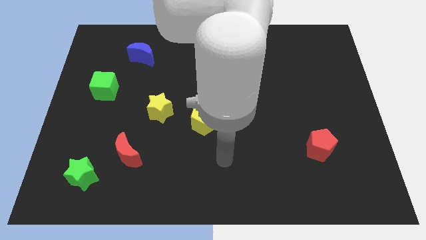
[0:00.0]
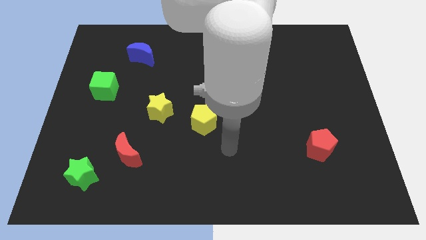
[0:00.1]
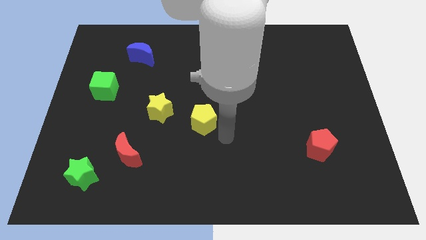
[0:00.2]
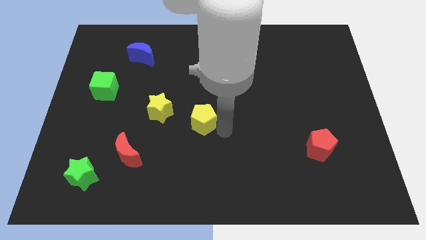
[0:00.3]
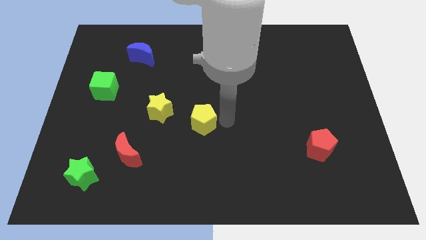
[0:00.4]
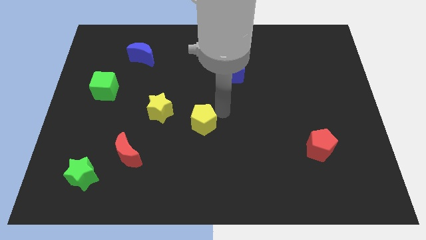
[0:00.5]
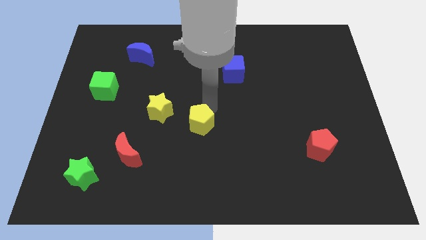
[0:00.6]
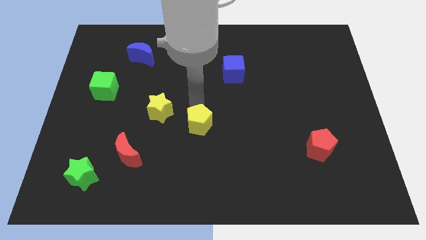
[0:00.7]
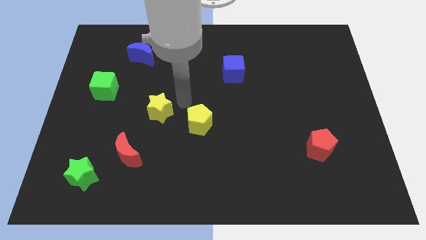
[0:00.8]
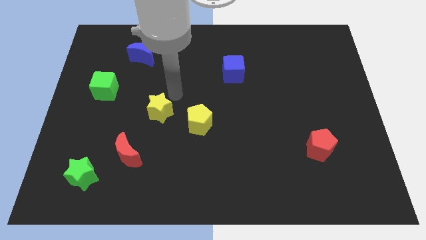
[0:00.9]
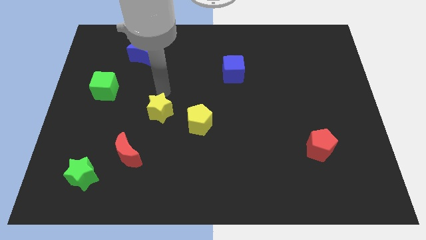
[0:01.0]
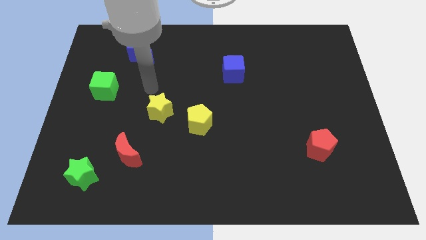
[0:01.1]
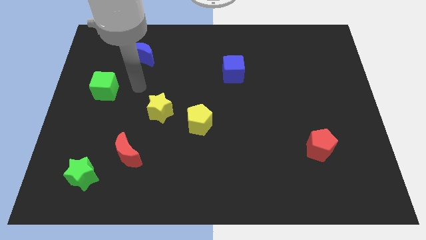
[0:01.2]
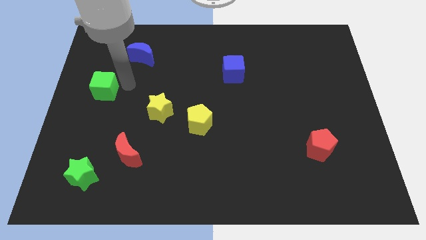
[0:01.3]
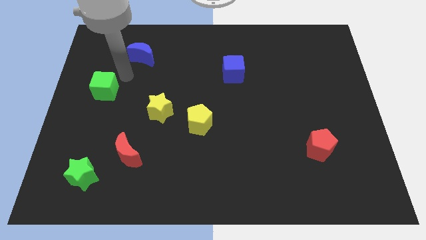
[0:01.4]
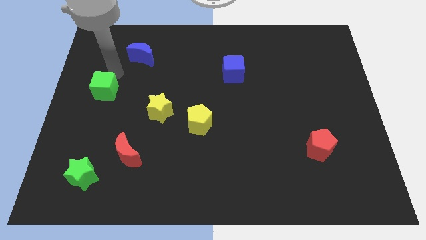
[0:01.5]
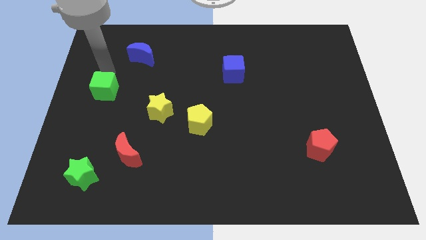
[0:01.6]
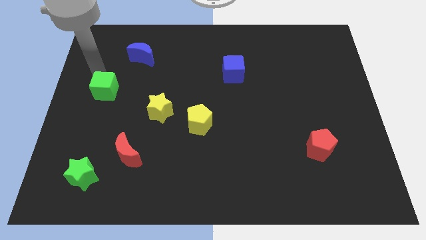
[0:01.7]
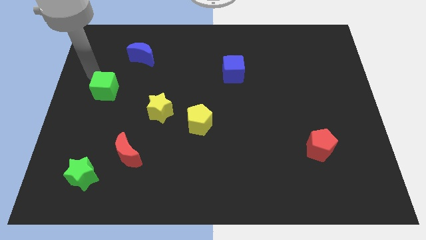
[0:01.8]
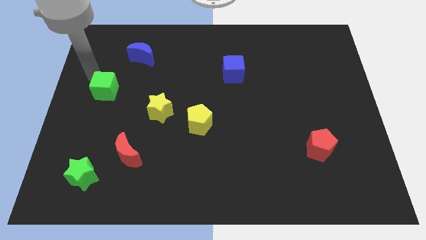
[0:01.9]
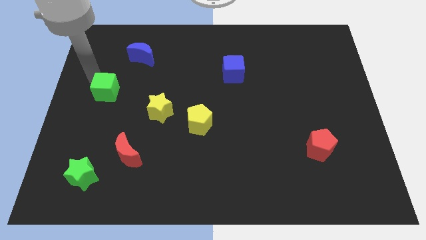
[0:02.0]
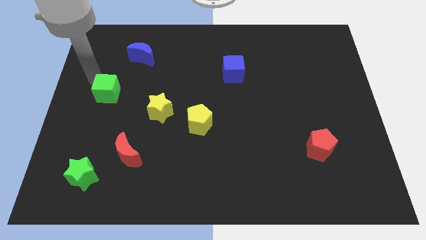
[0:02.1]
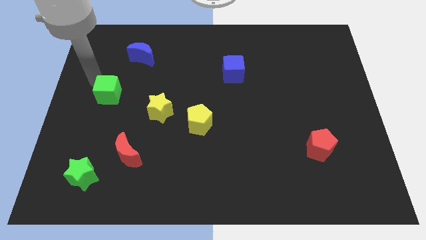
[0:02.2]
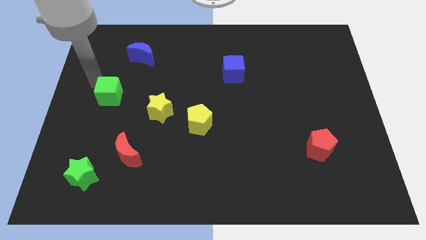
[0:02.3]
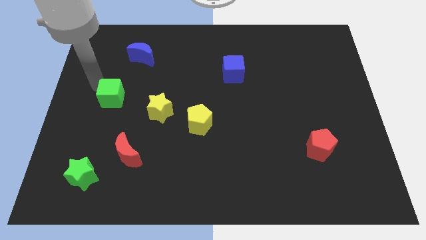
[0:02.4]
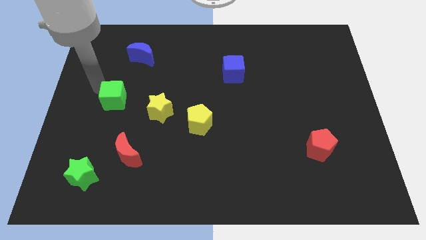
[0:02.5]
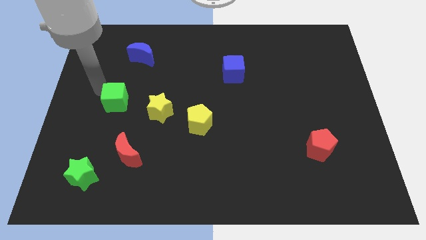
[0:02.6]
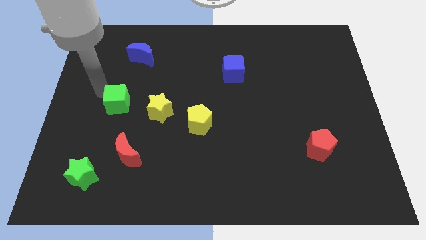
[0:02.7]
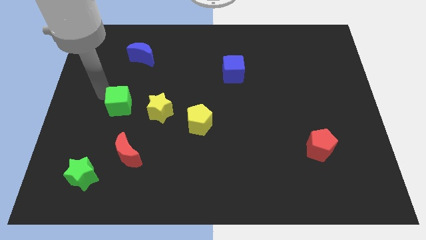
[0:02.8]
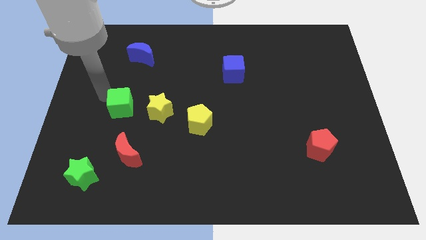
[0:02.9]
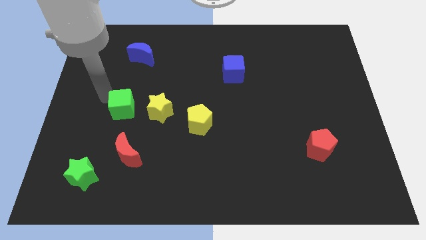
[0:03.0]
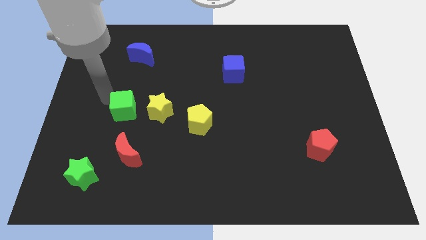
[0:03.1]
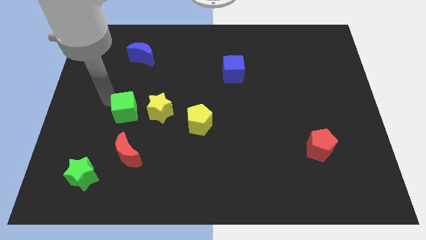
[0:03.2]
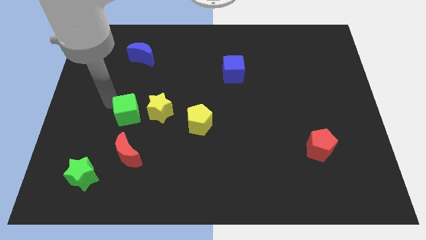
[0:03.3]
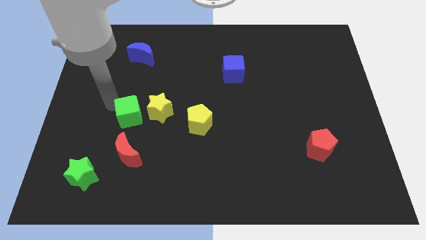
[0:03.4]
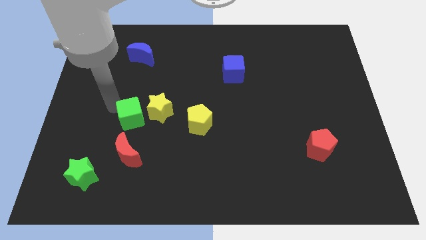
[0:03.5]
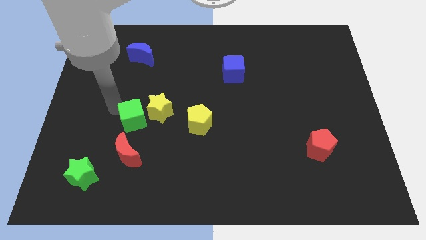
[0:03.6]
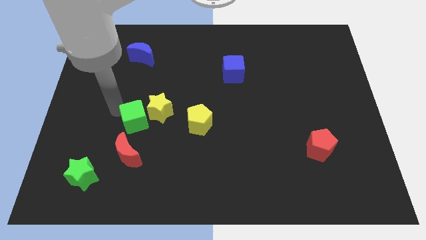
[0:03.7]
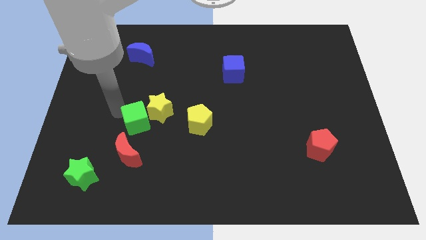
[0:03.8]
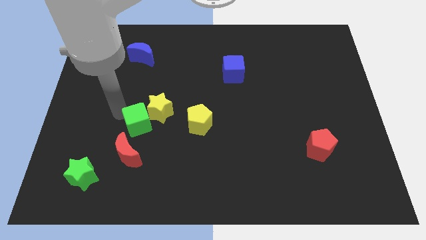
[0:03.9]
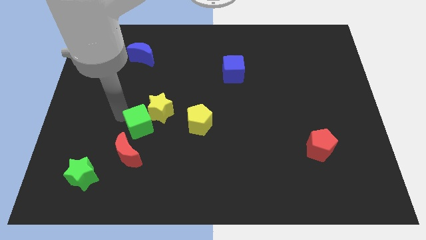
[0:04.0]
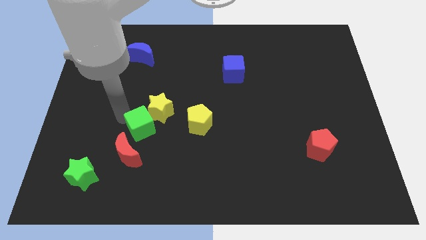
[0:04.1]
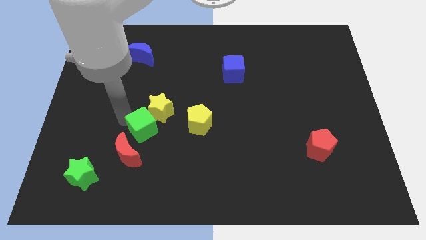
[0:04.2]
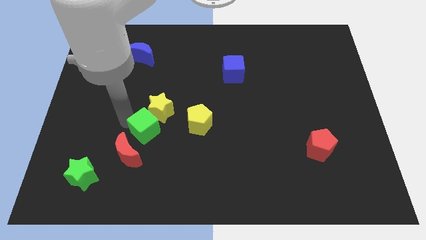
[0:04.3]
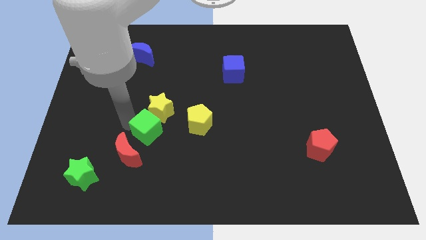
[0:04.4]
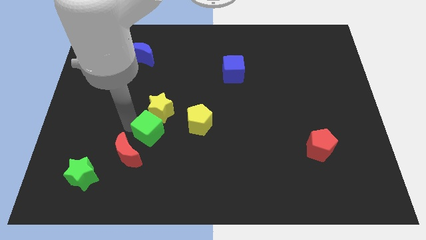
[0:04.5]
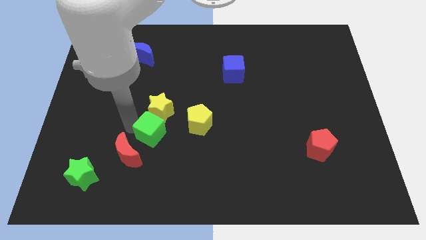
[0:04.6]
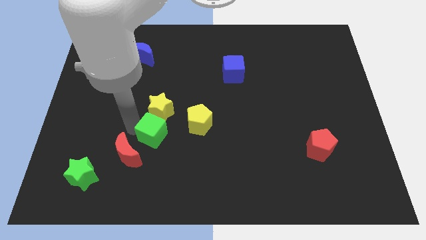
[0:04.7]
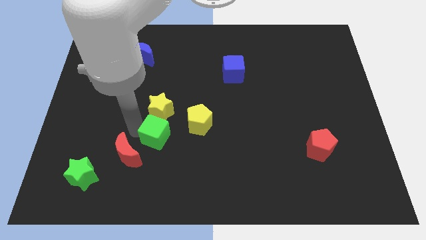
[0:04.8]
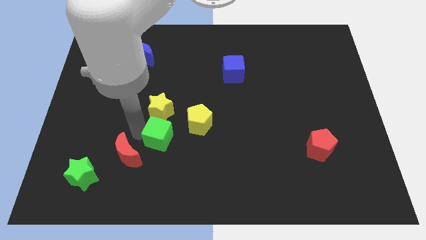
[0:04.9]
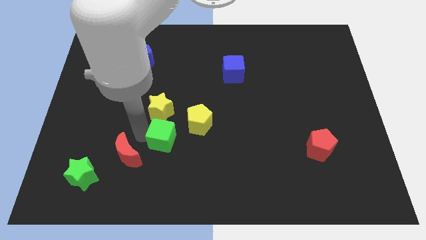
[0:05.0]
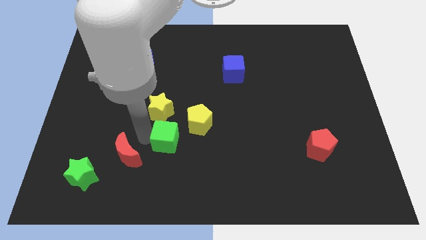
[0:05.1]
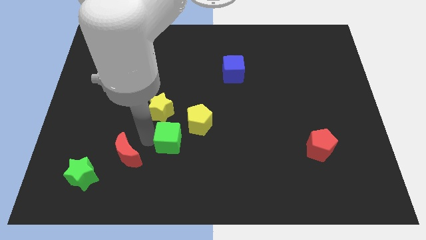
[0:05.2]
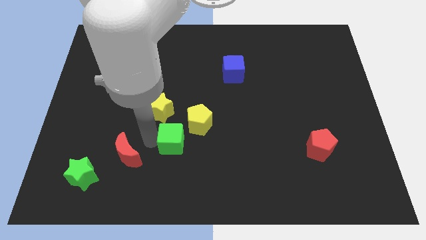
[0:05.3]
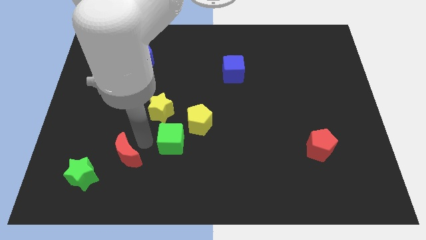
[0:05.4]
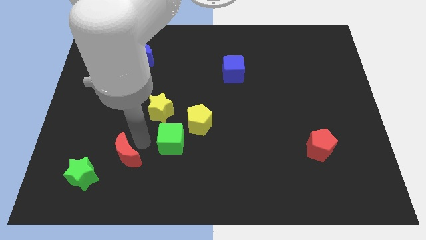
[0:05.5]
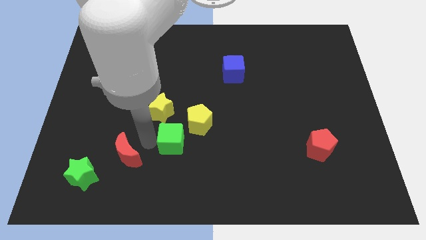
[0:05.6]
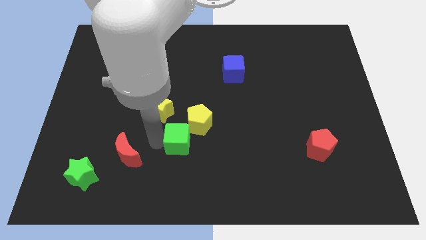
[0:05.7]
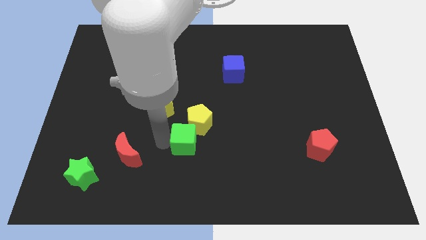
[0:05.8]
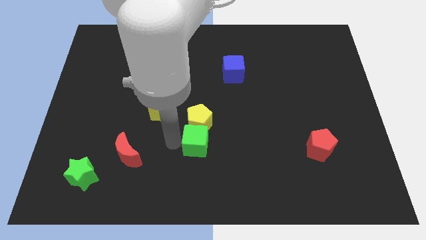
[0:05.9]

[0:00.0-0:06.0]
slide the green cube diagonally down and to the right of the yellow pentagon

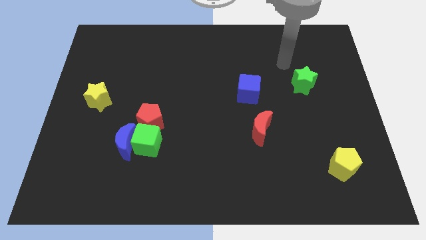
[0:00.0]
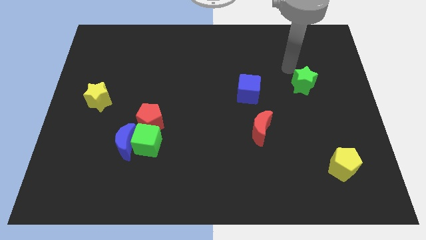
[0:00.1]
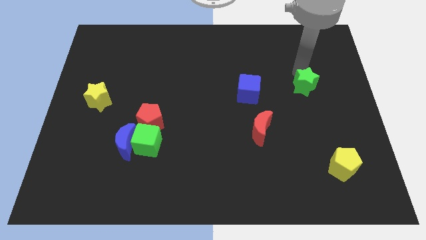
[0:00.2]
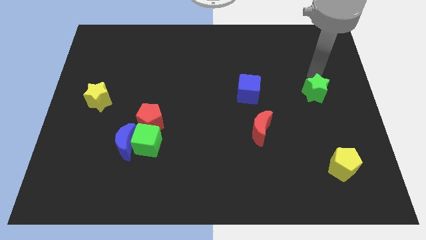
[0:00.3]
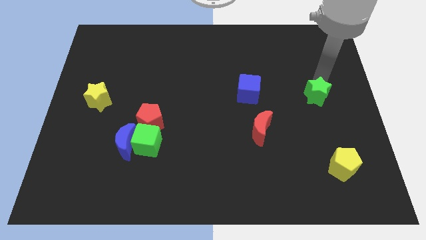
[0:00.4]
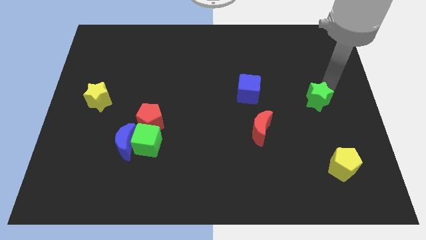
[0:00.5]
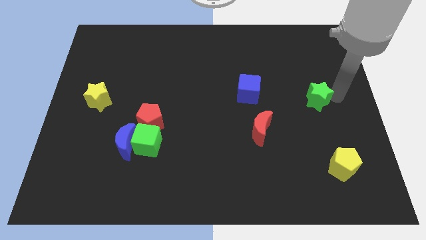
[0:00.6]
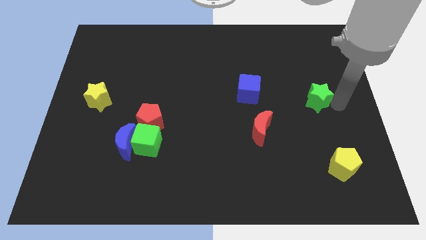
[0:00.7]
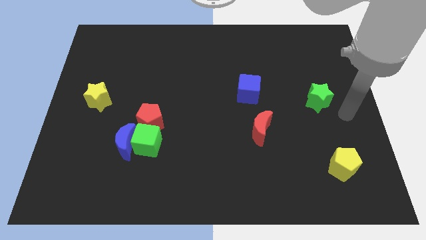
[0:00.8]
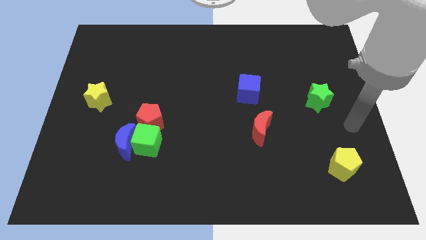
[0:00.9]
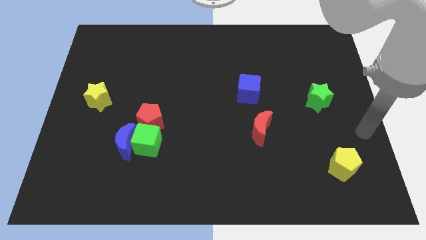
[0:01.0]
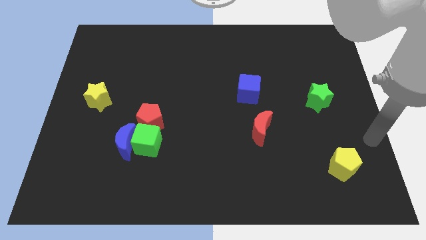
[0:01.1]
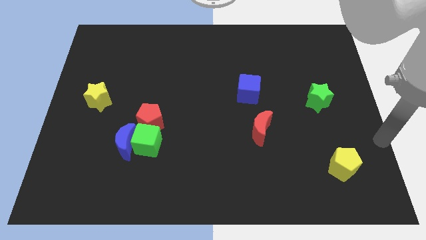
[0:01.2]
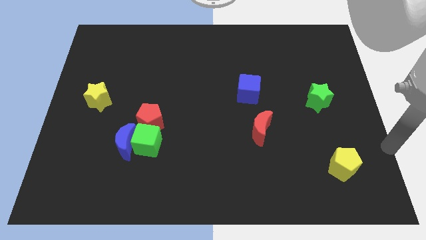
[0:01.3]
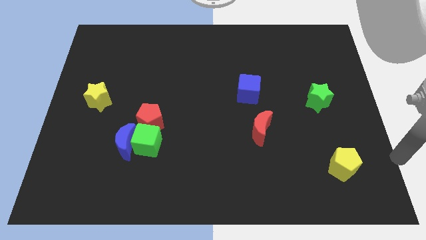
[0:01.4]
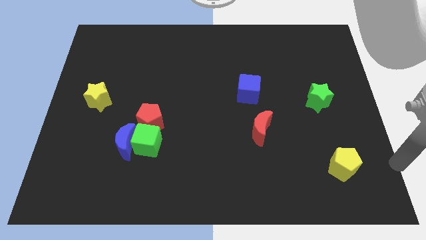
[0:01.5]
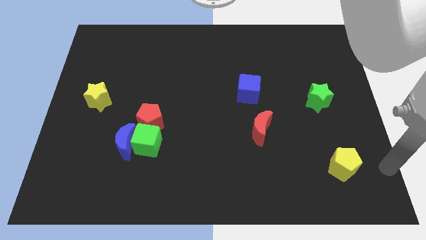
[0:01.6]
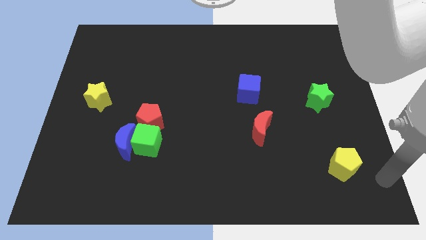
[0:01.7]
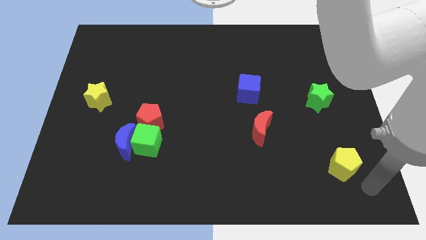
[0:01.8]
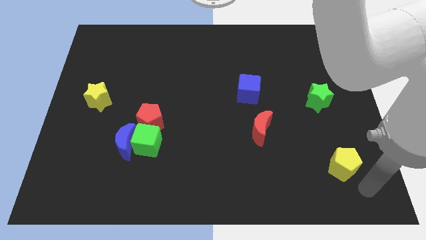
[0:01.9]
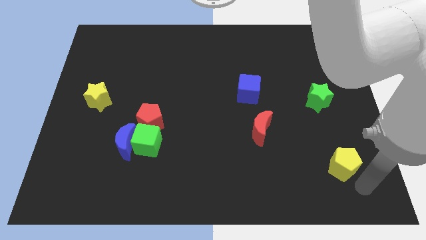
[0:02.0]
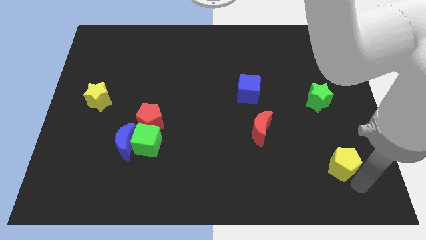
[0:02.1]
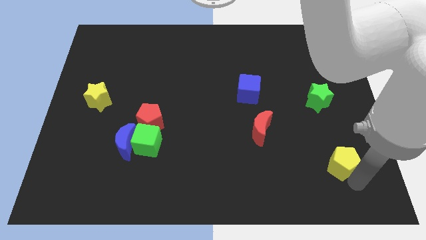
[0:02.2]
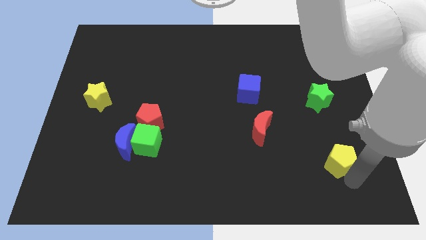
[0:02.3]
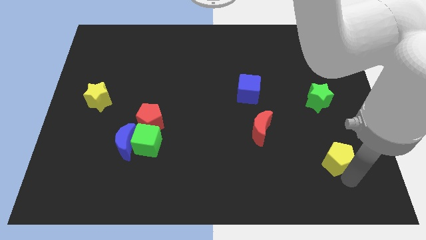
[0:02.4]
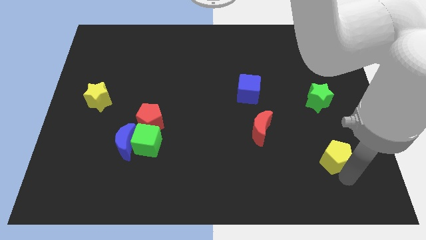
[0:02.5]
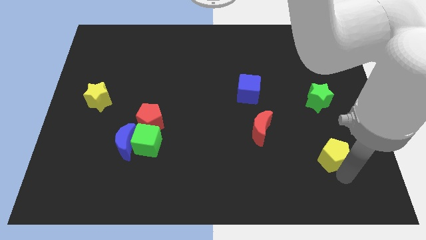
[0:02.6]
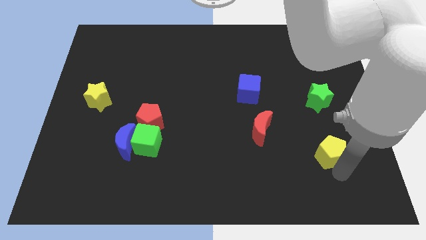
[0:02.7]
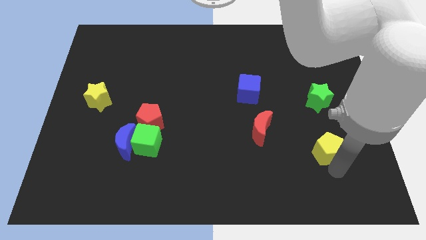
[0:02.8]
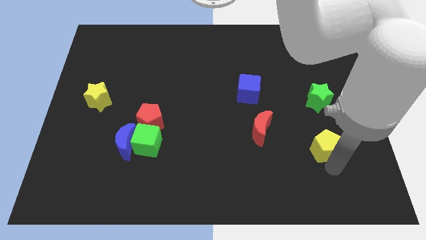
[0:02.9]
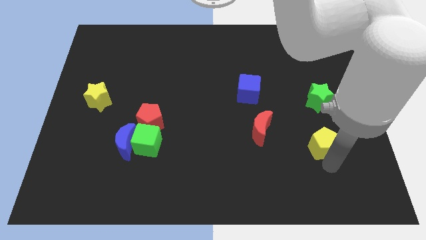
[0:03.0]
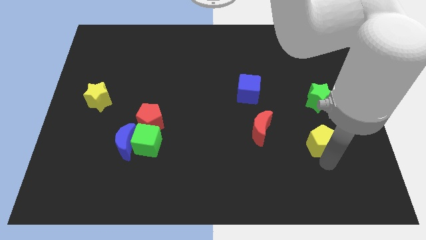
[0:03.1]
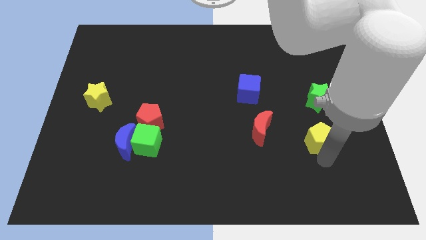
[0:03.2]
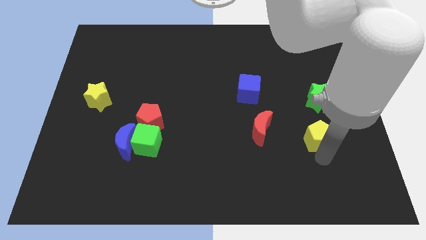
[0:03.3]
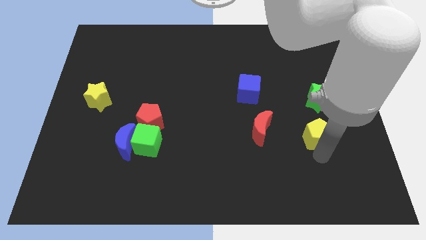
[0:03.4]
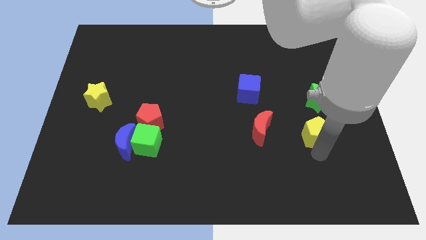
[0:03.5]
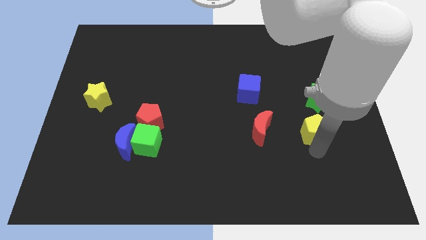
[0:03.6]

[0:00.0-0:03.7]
move the yellow pentagon diagonally down and to the left of the green star
